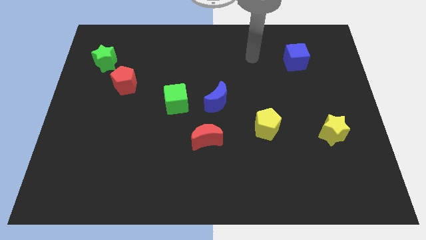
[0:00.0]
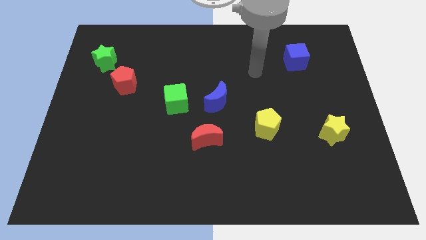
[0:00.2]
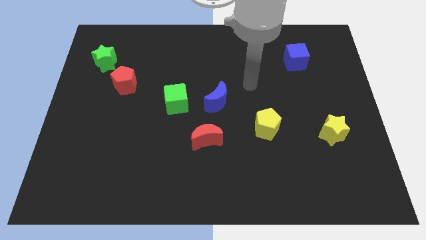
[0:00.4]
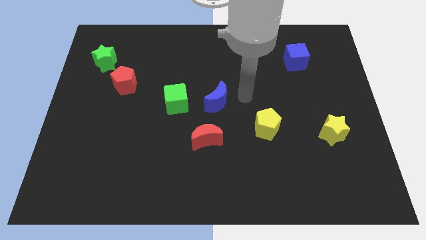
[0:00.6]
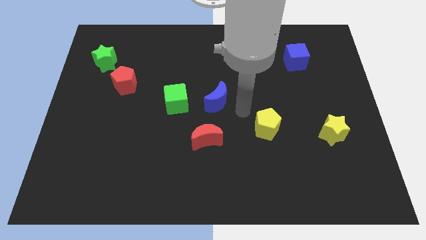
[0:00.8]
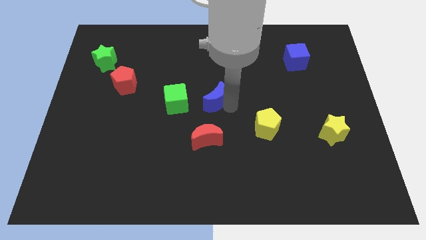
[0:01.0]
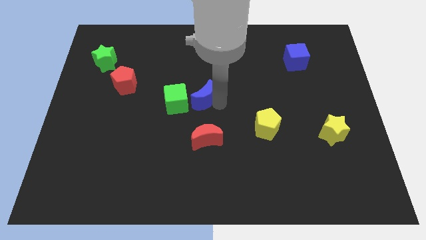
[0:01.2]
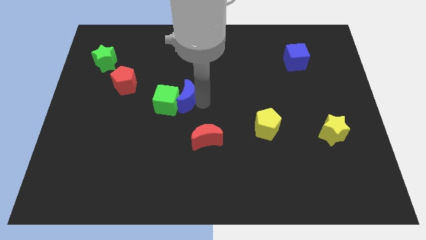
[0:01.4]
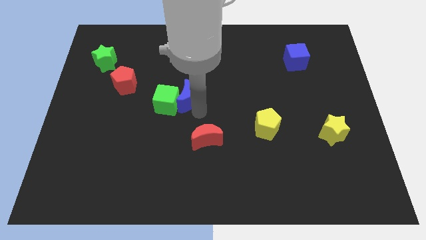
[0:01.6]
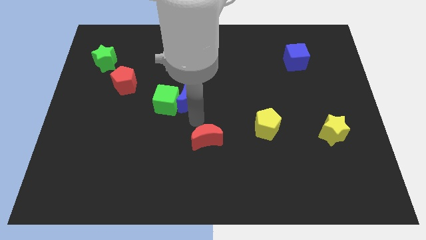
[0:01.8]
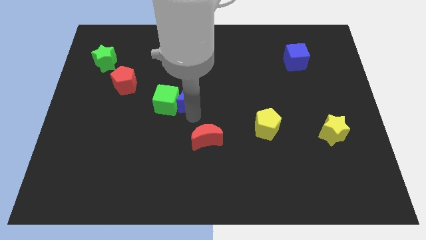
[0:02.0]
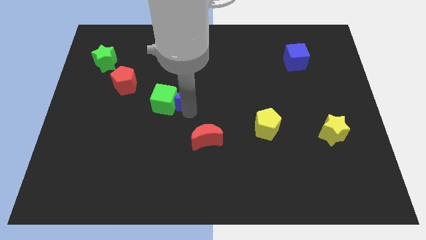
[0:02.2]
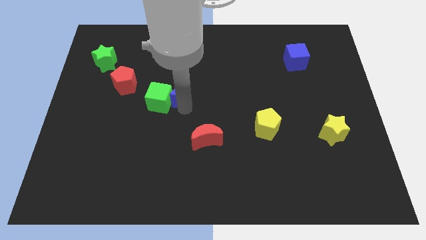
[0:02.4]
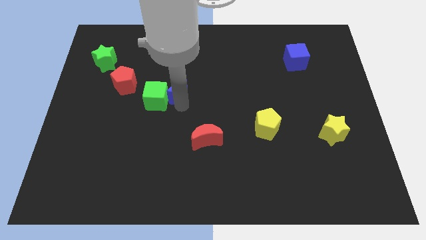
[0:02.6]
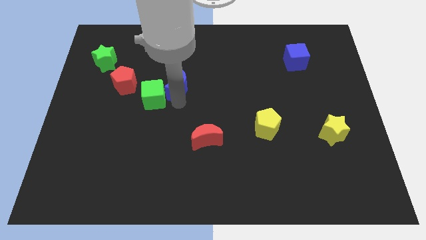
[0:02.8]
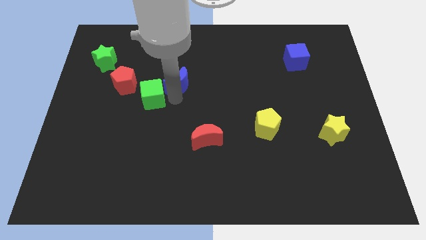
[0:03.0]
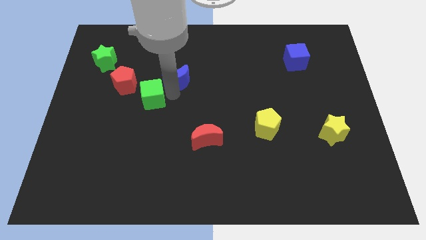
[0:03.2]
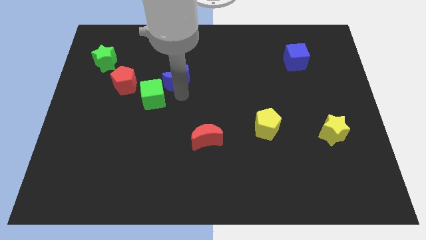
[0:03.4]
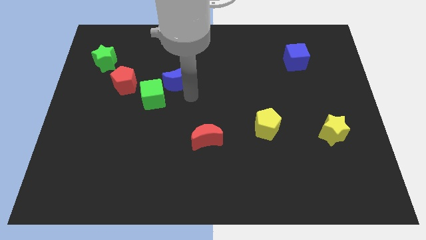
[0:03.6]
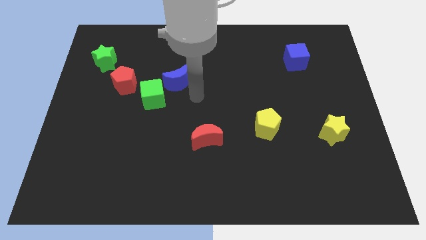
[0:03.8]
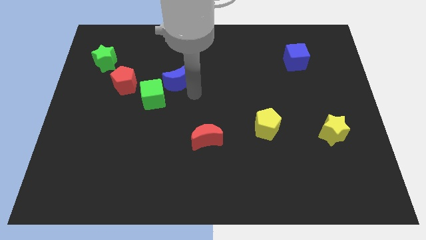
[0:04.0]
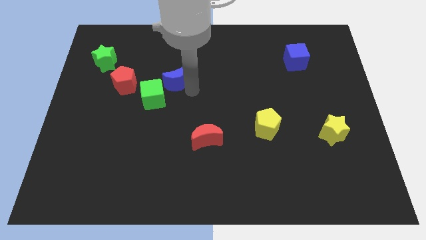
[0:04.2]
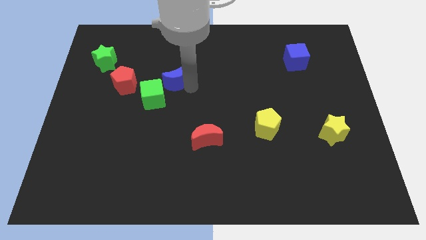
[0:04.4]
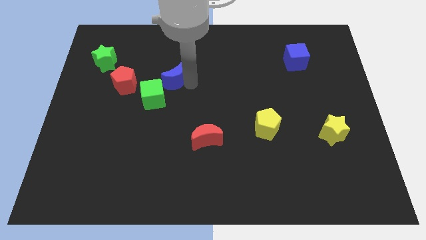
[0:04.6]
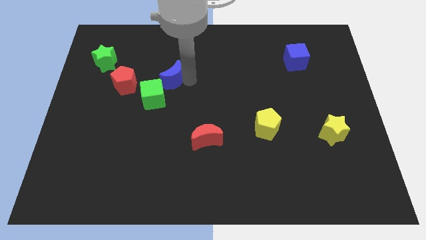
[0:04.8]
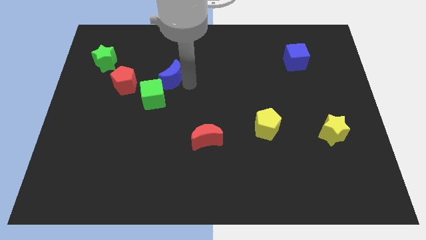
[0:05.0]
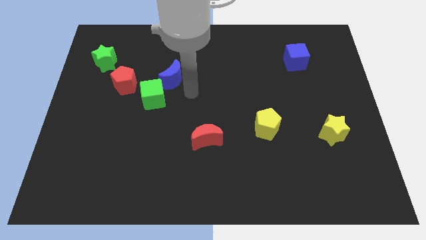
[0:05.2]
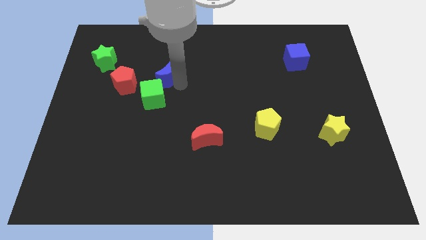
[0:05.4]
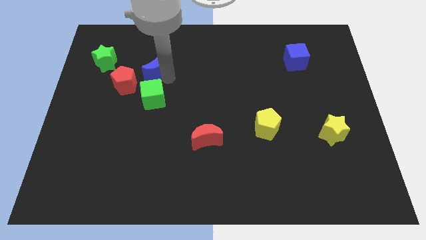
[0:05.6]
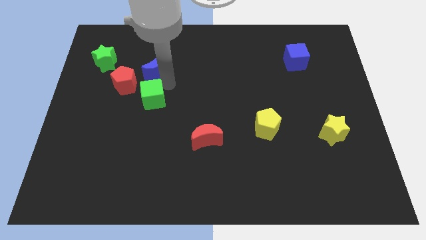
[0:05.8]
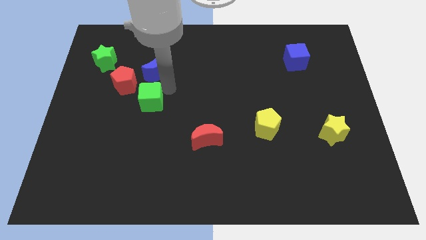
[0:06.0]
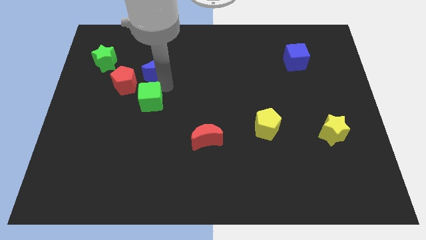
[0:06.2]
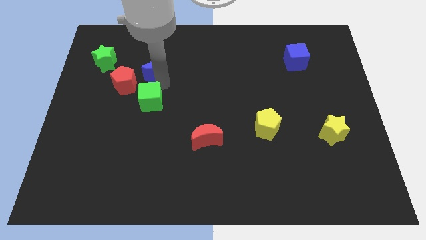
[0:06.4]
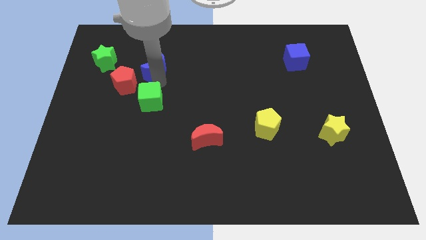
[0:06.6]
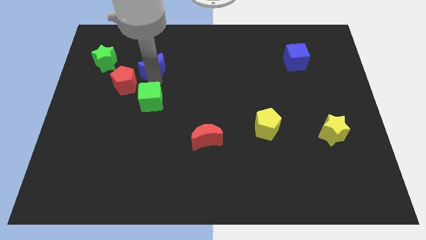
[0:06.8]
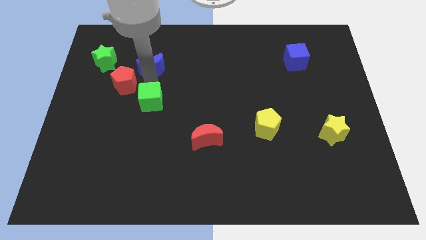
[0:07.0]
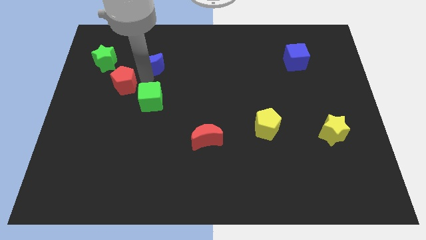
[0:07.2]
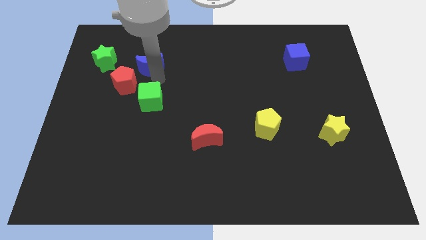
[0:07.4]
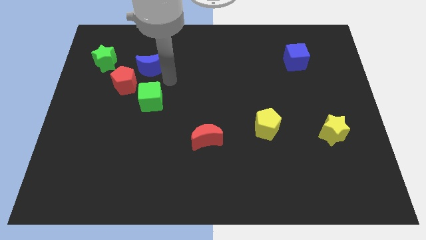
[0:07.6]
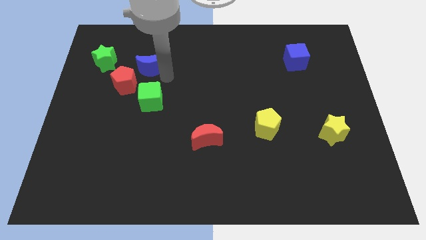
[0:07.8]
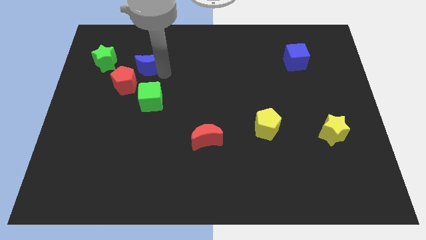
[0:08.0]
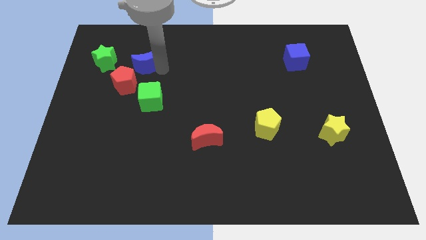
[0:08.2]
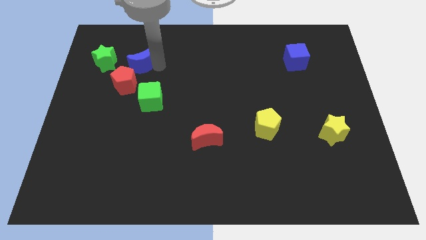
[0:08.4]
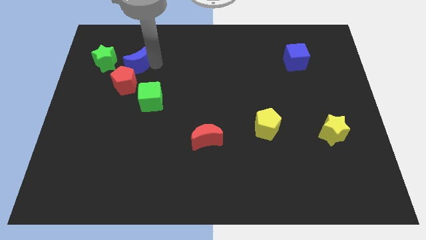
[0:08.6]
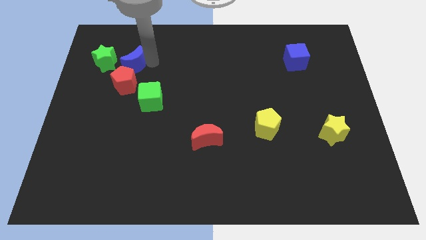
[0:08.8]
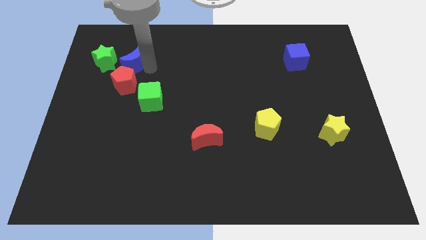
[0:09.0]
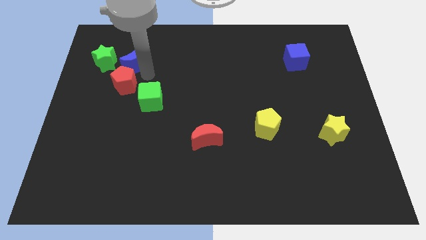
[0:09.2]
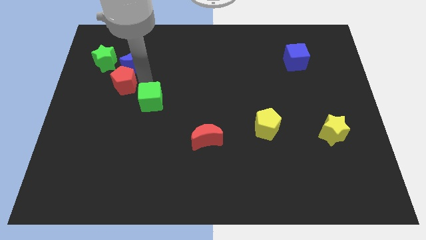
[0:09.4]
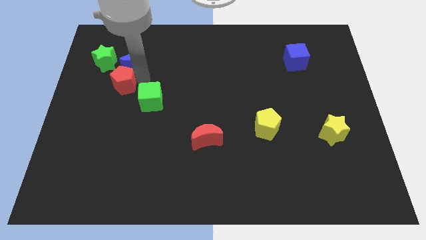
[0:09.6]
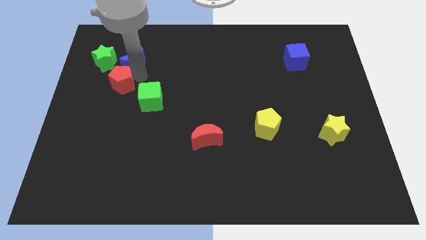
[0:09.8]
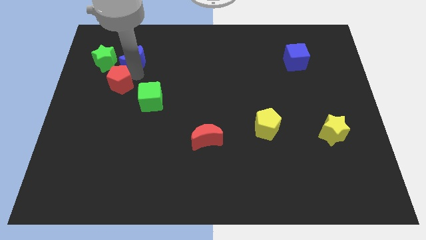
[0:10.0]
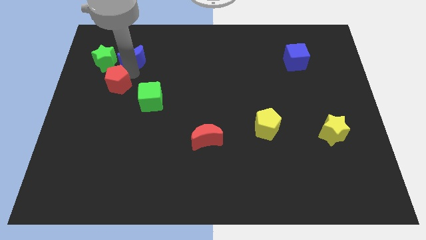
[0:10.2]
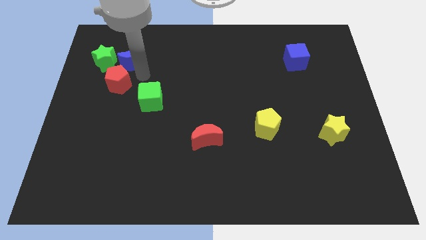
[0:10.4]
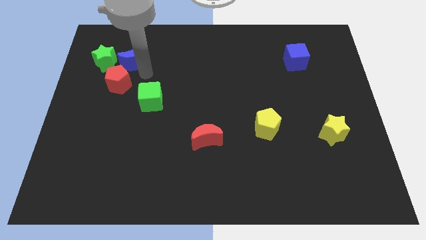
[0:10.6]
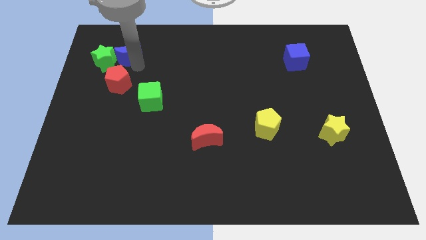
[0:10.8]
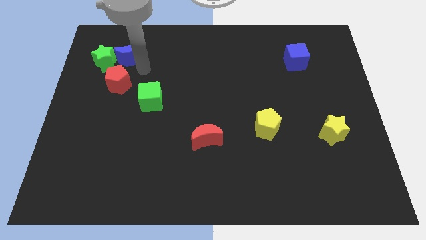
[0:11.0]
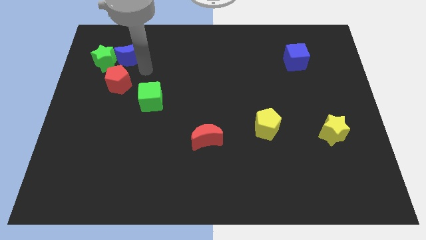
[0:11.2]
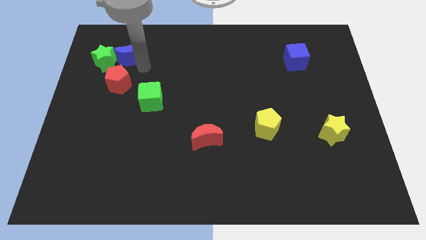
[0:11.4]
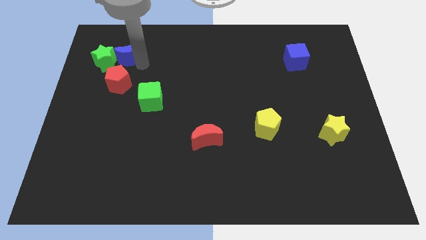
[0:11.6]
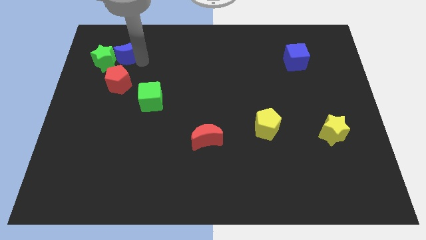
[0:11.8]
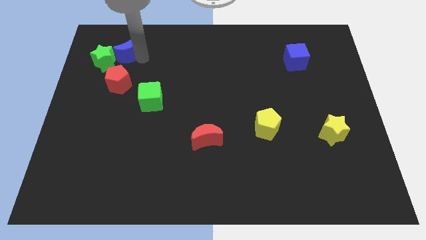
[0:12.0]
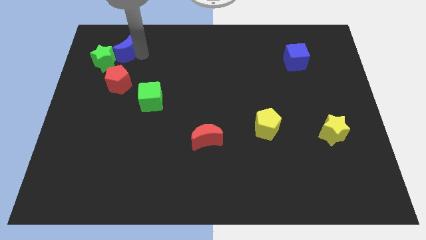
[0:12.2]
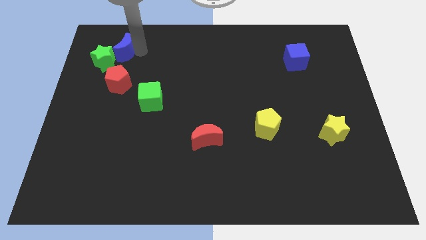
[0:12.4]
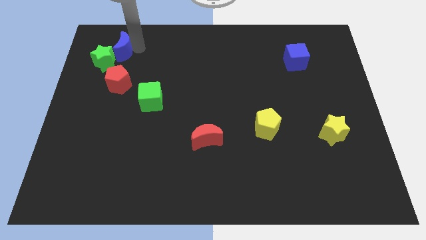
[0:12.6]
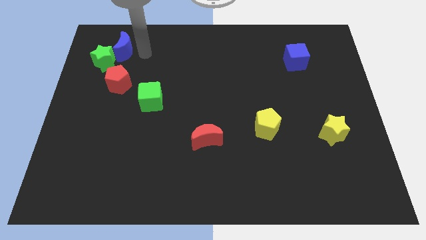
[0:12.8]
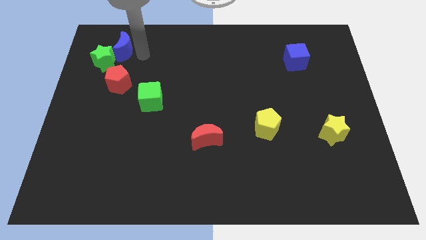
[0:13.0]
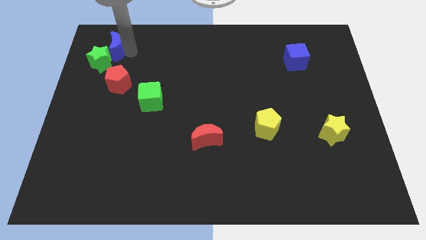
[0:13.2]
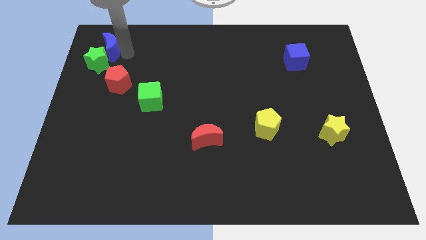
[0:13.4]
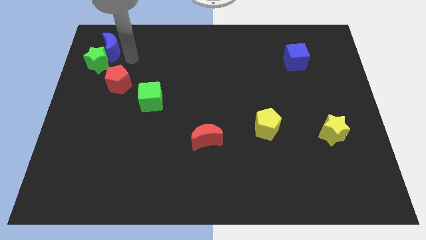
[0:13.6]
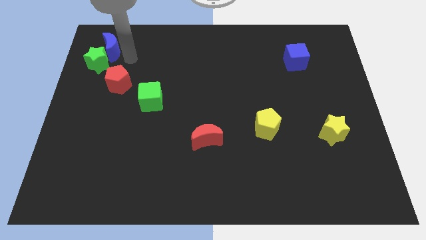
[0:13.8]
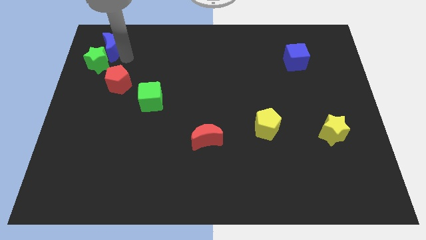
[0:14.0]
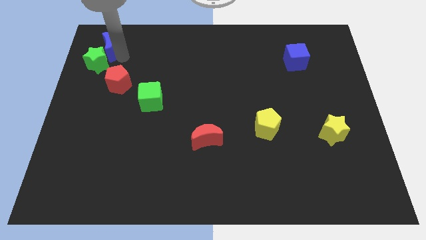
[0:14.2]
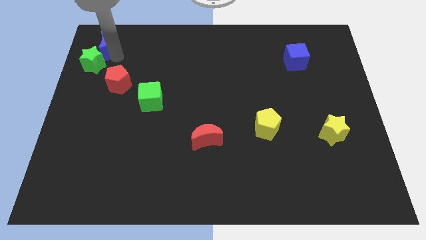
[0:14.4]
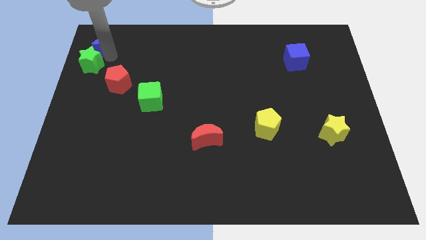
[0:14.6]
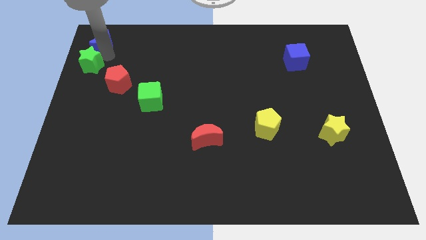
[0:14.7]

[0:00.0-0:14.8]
slide the blue moon to the upper left corner
